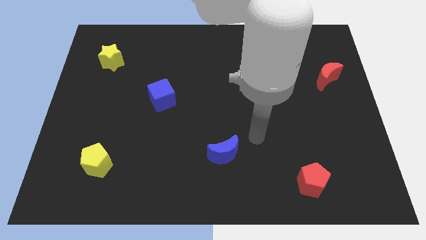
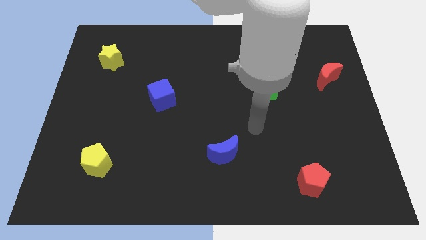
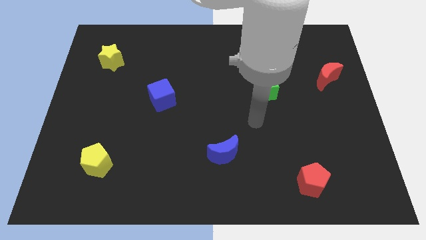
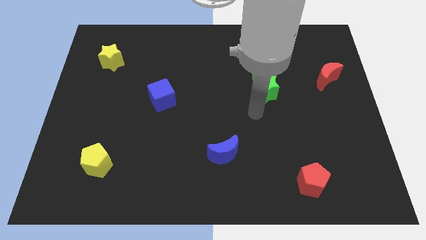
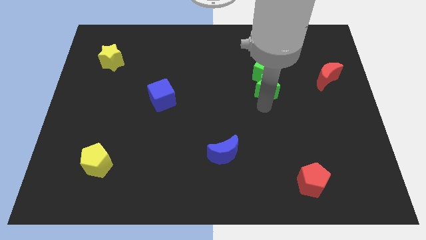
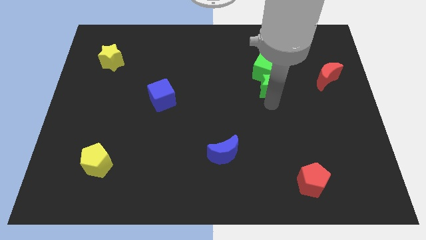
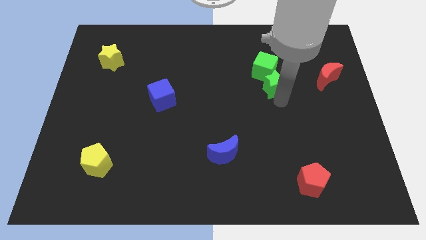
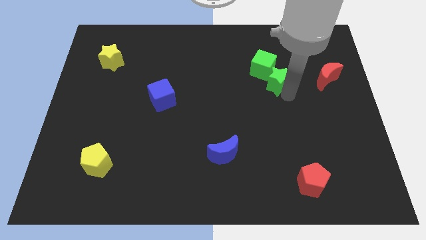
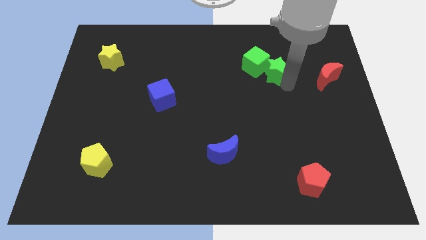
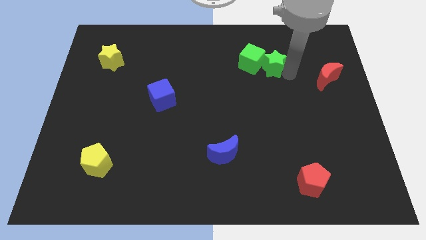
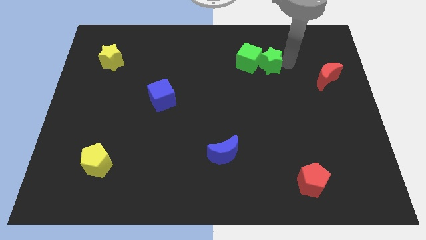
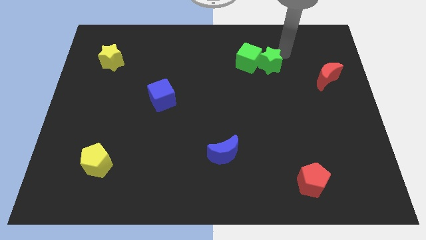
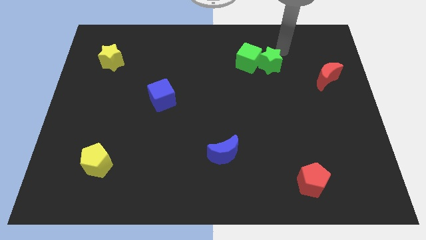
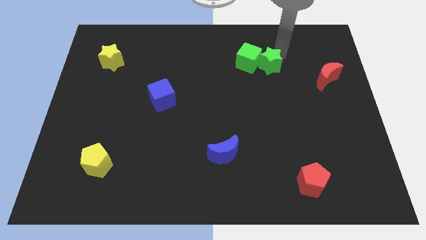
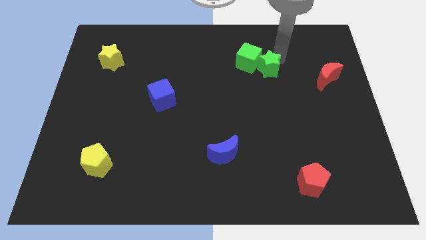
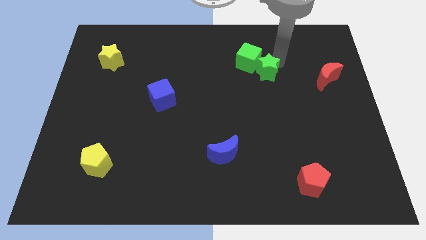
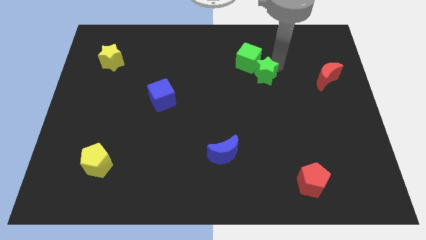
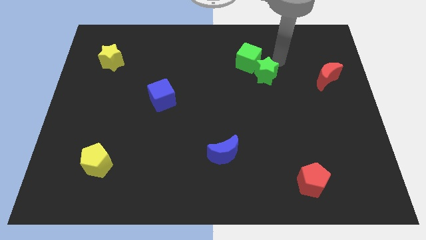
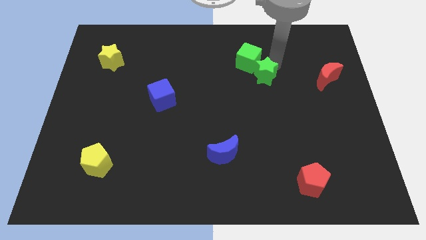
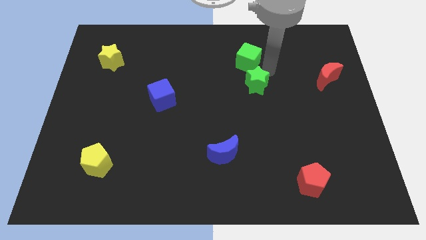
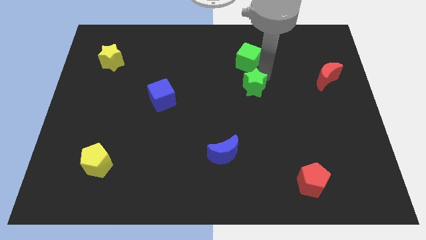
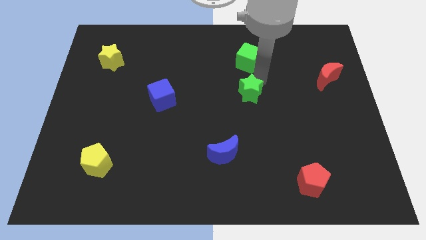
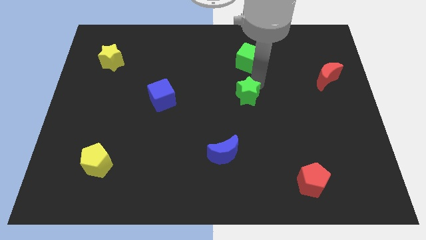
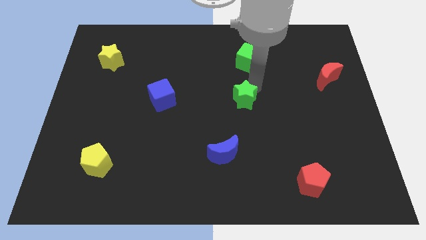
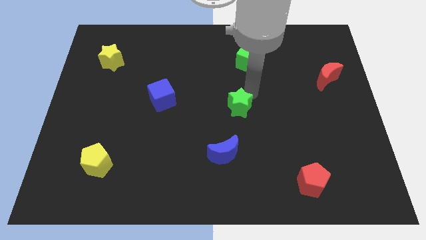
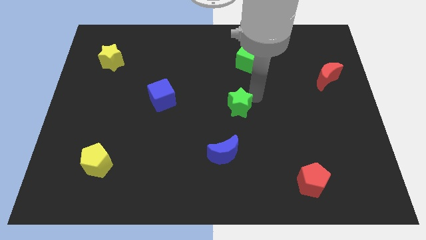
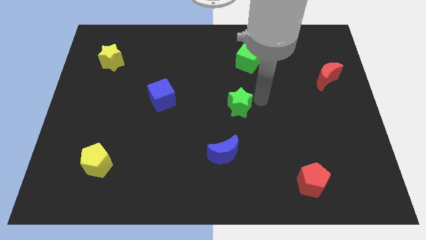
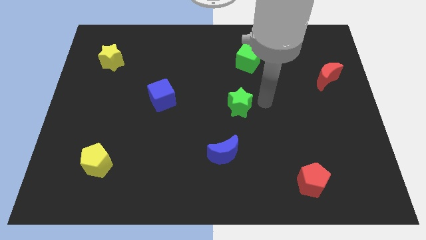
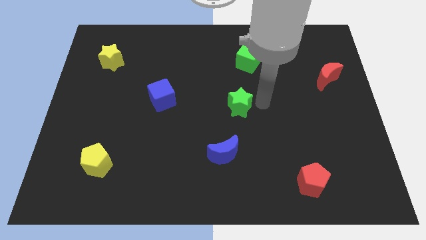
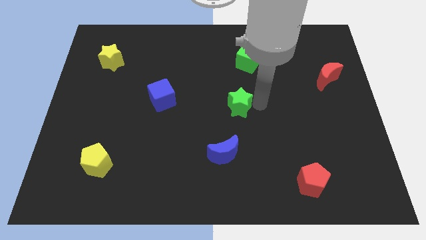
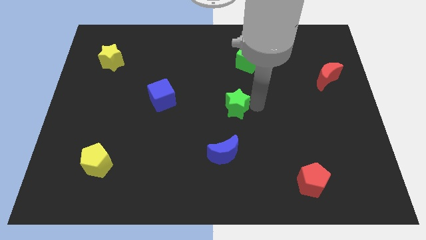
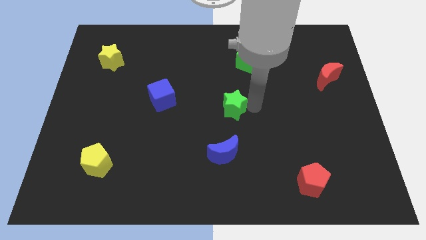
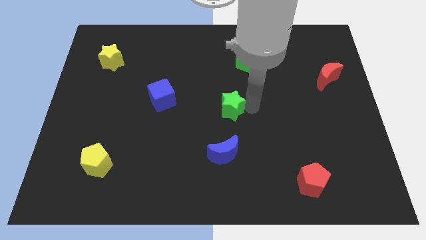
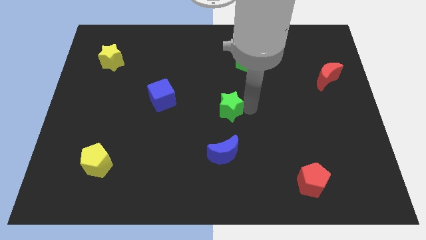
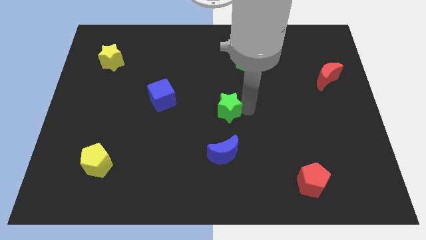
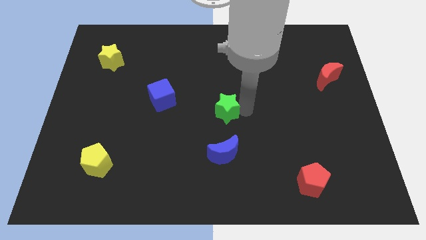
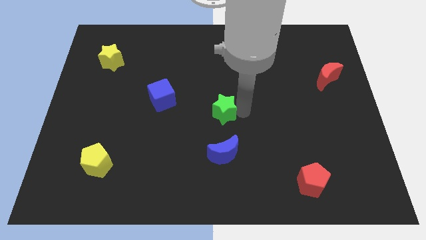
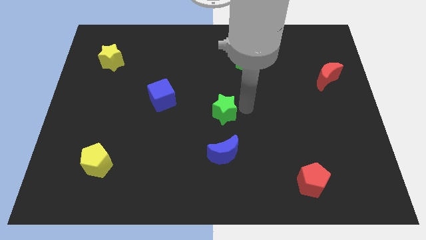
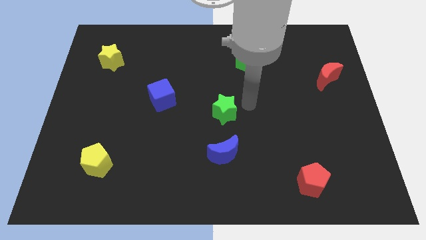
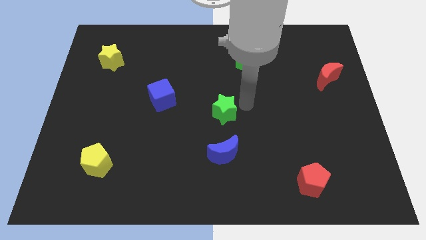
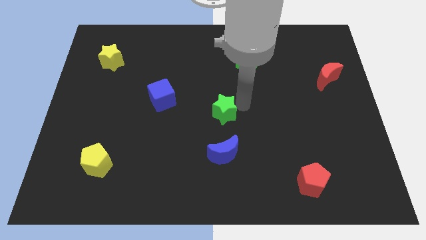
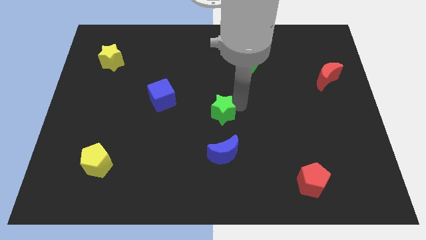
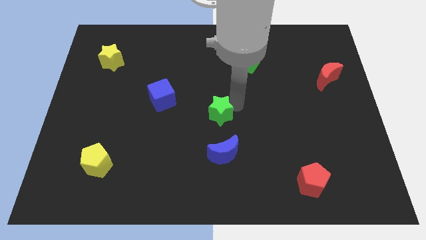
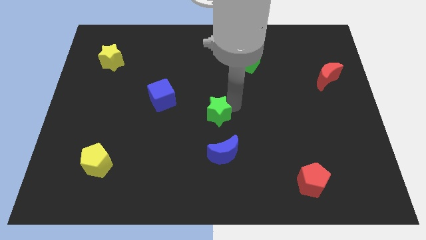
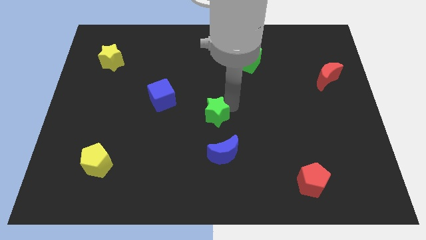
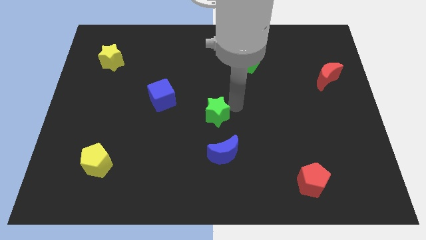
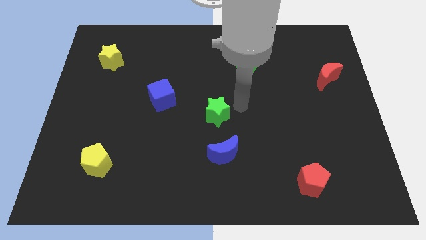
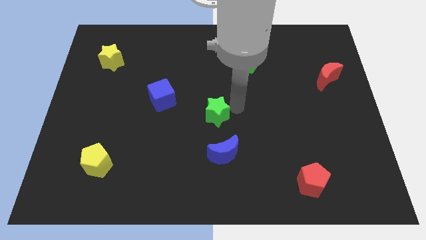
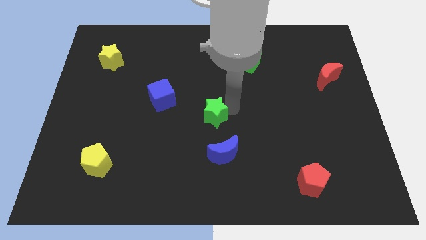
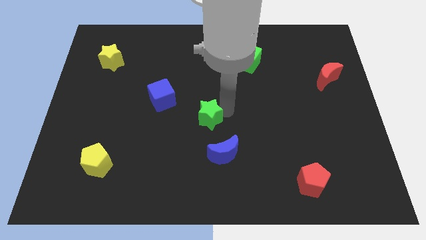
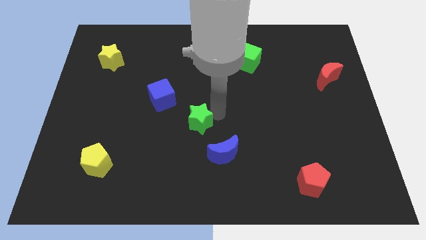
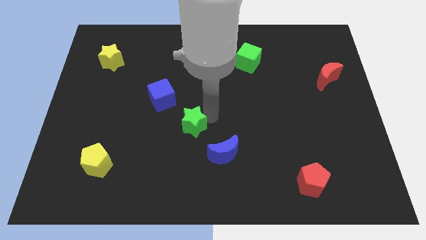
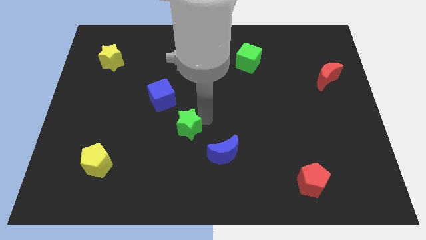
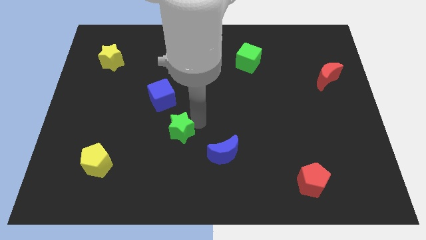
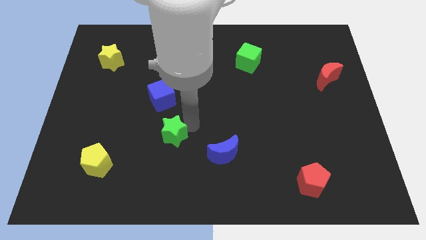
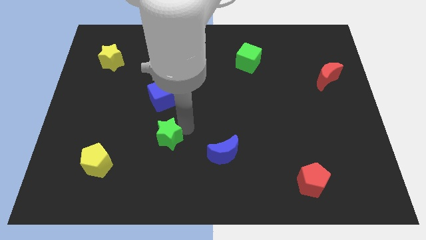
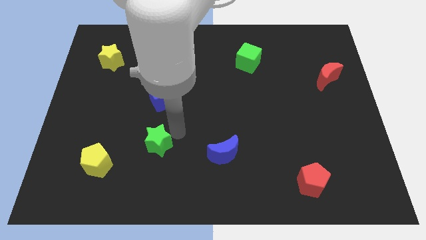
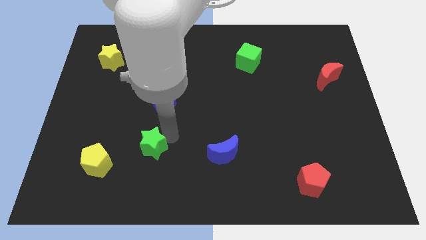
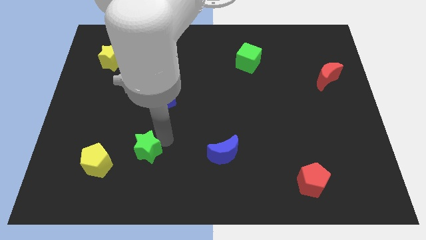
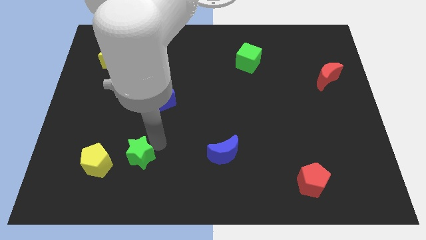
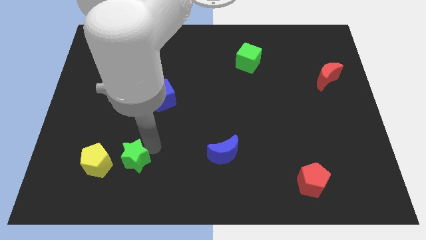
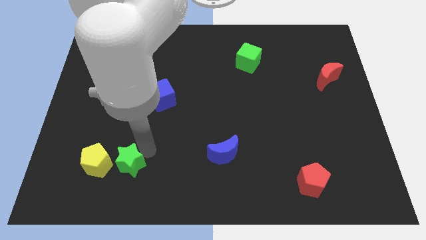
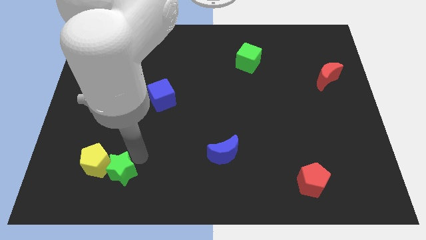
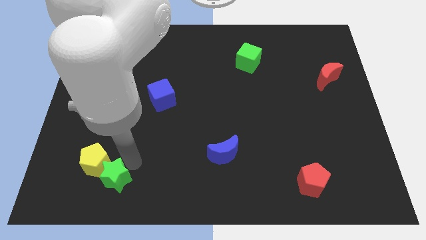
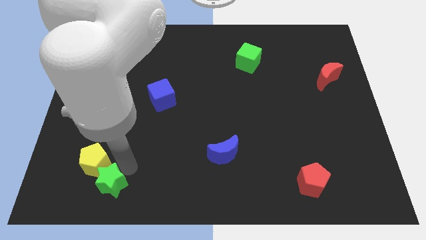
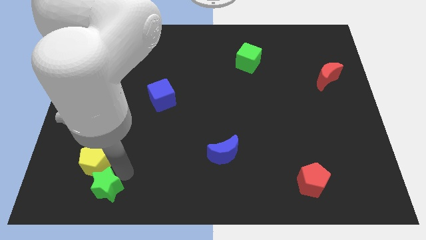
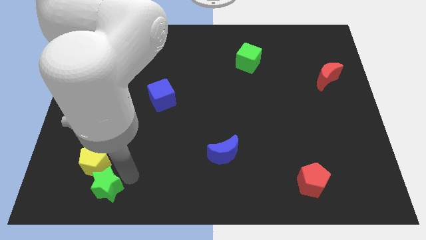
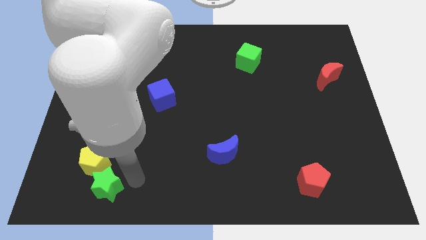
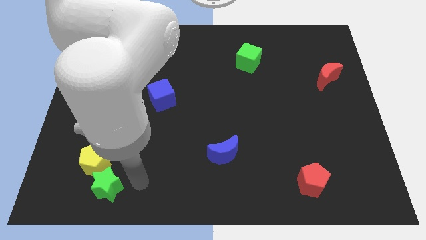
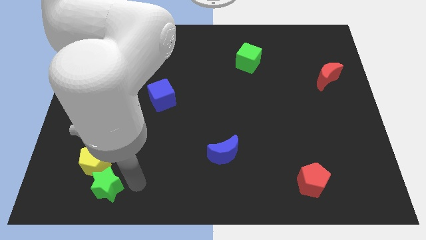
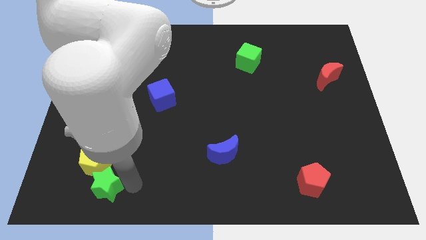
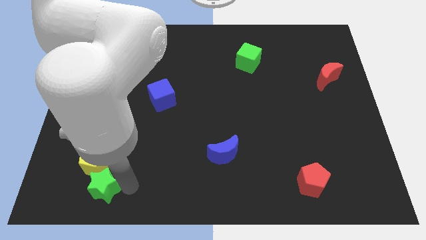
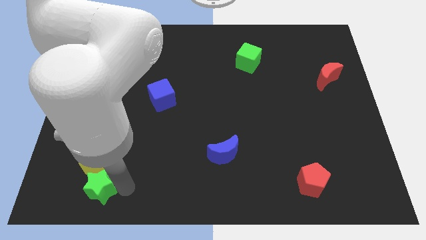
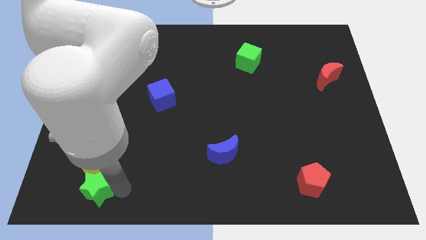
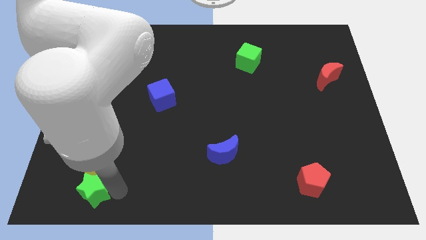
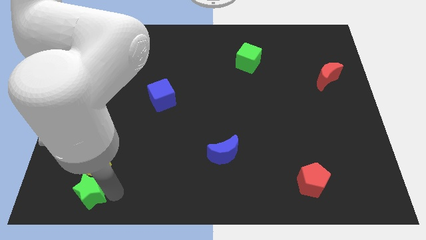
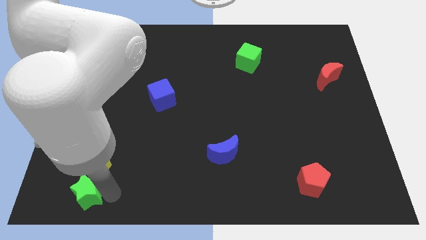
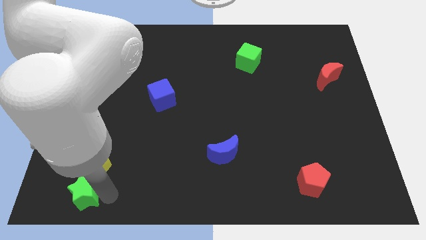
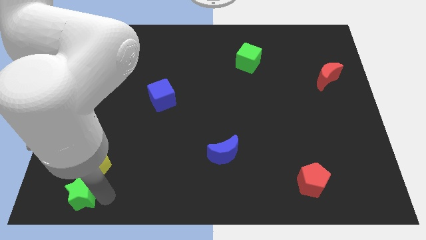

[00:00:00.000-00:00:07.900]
move the green star to the bottom left corner
